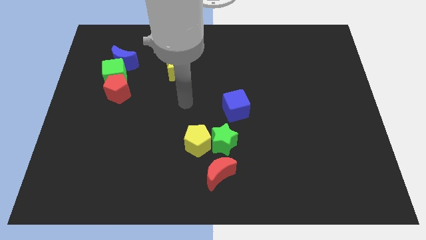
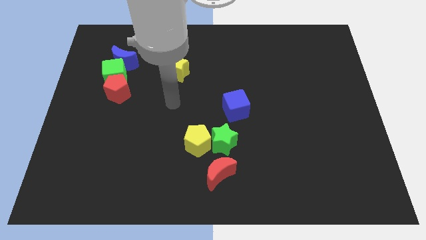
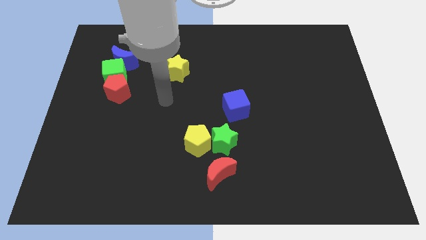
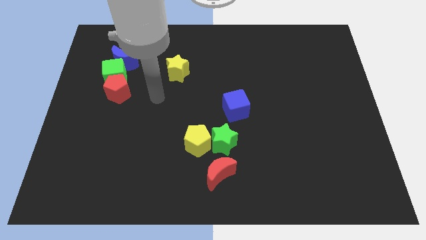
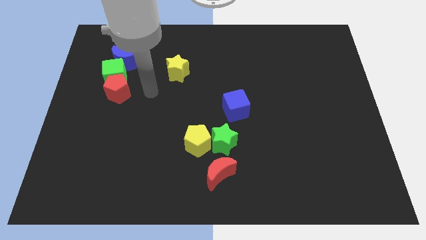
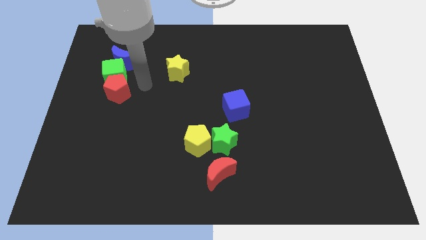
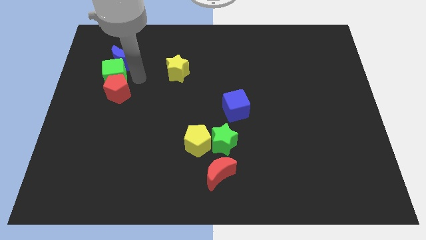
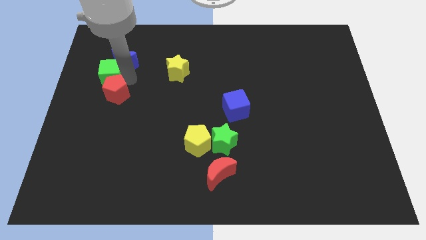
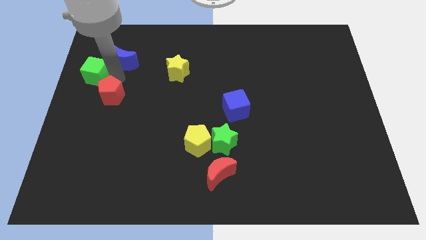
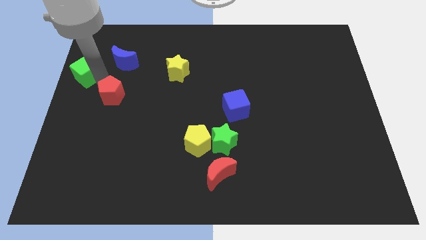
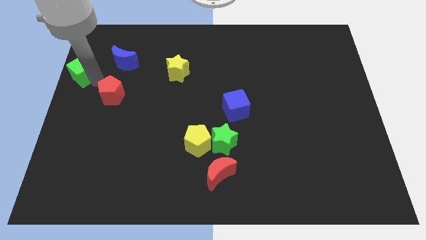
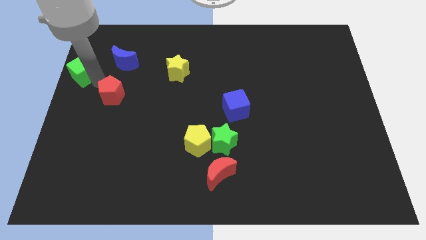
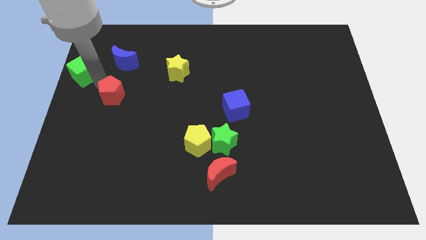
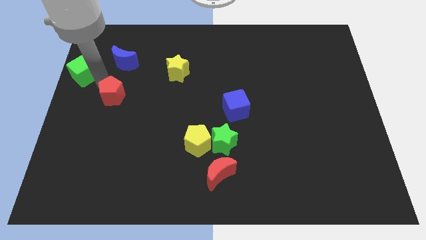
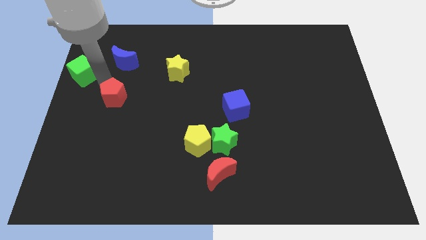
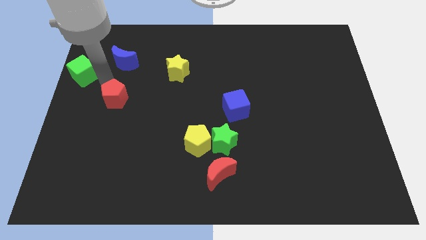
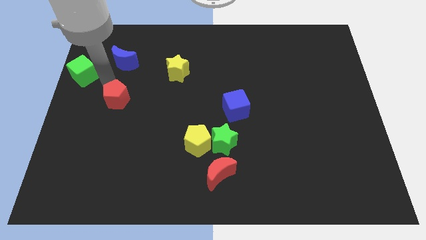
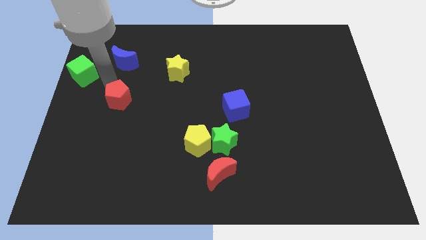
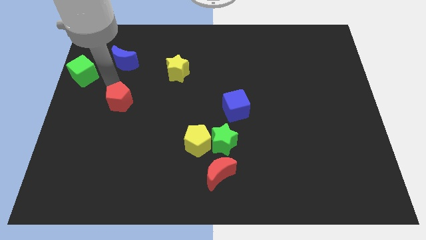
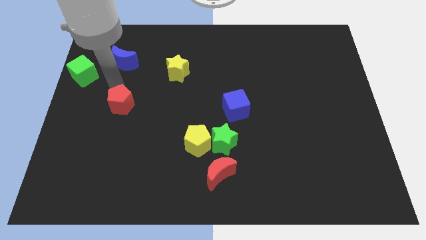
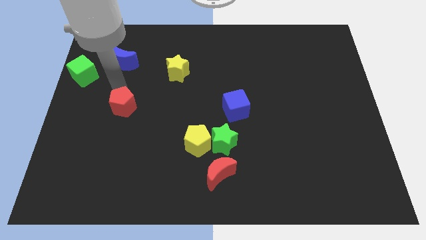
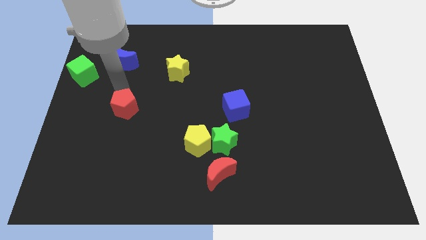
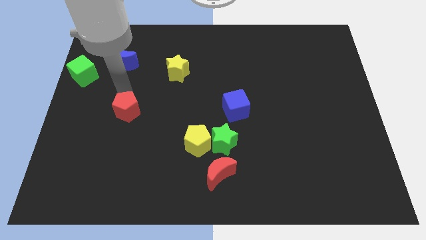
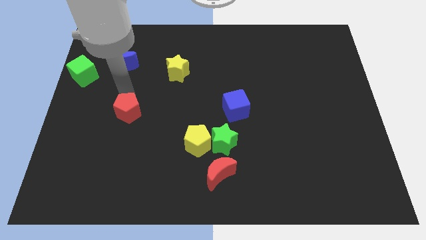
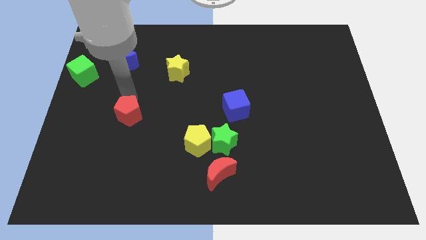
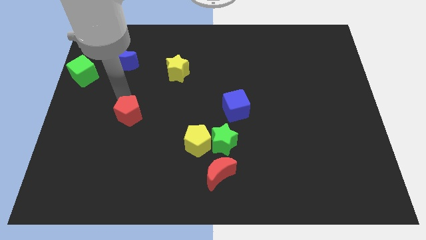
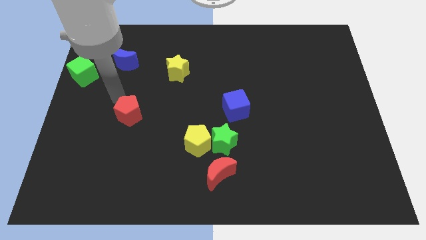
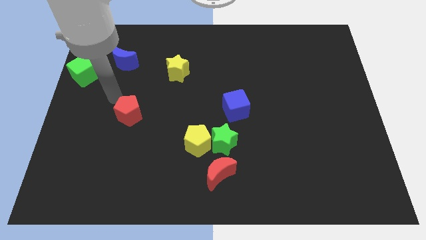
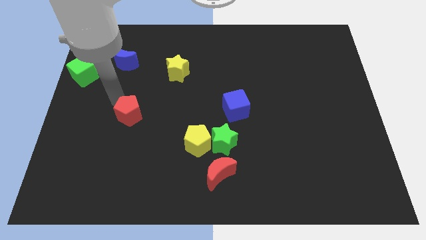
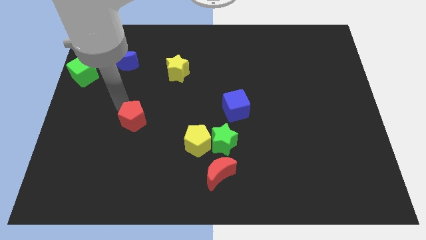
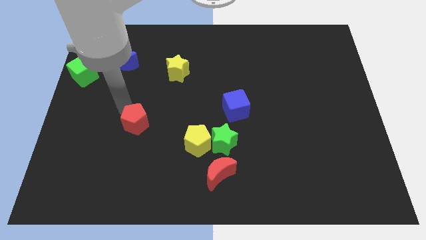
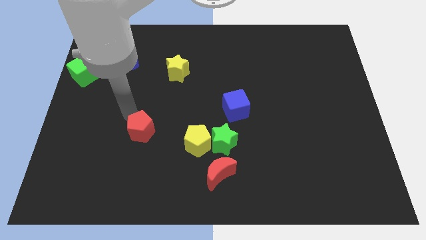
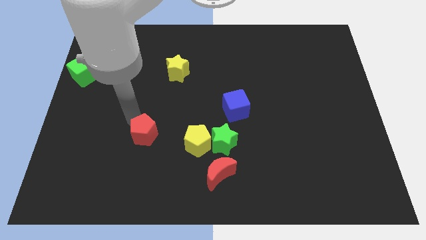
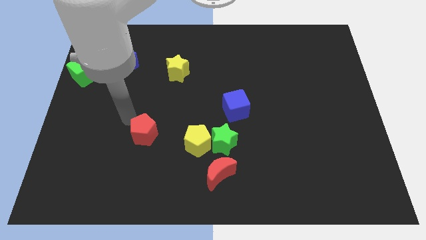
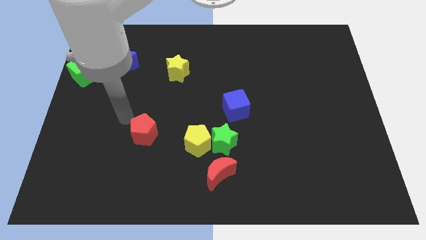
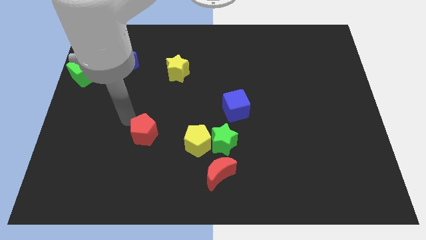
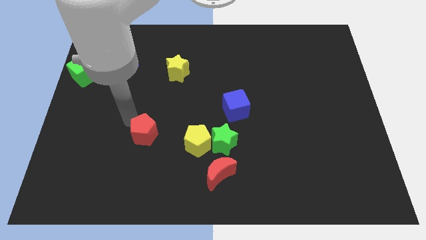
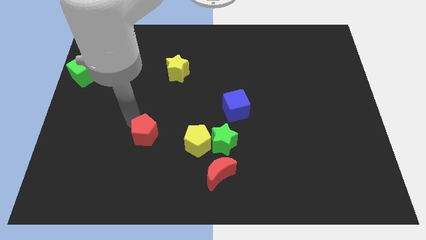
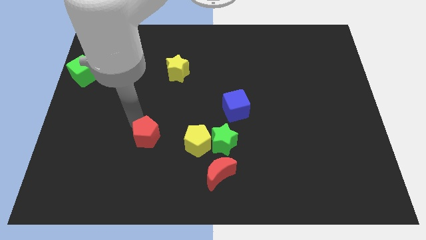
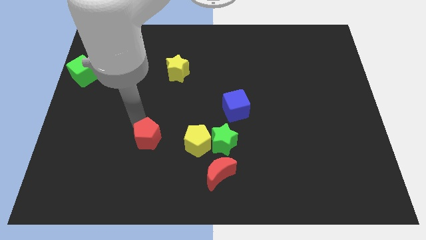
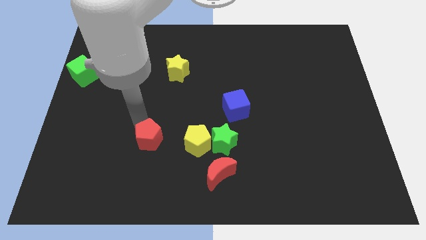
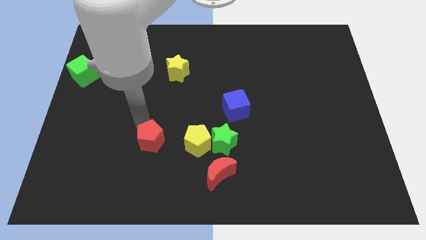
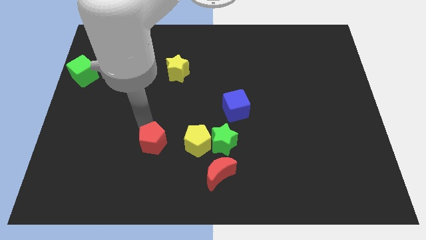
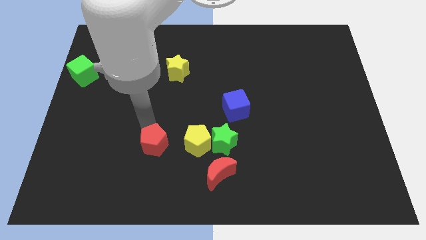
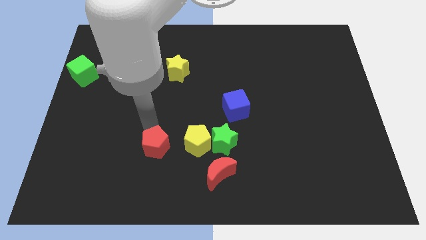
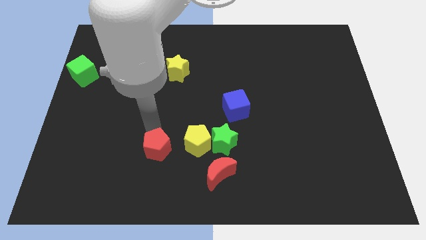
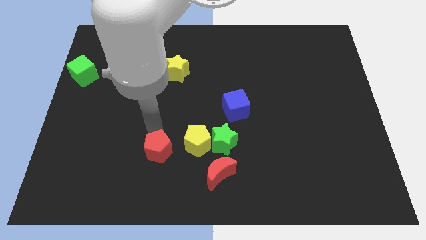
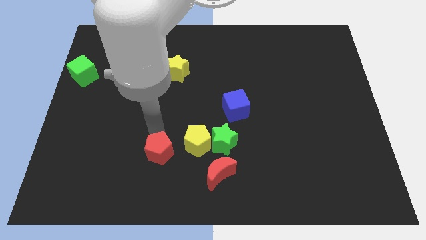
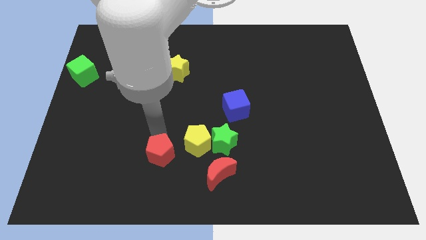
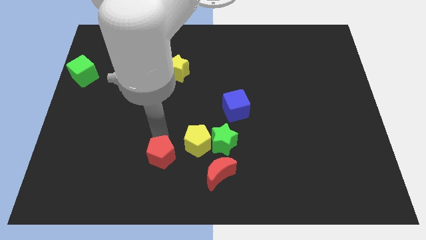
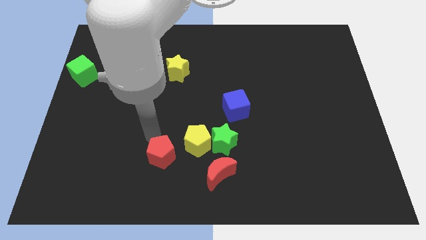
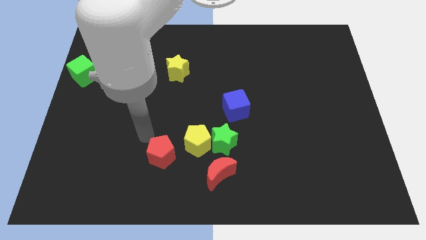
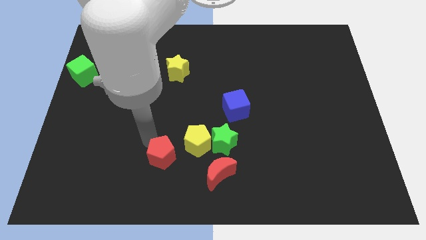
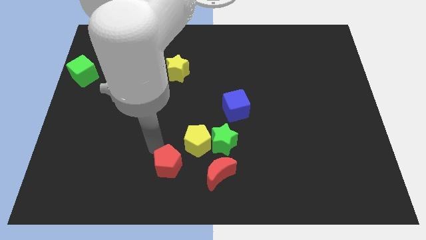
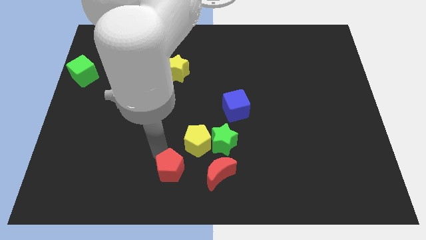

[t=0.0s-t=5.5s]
move the red pentagon to the bottom side

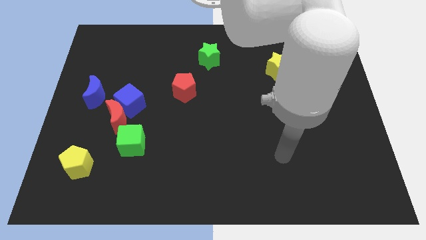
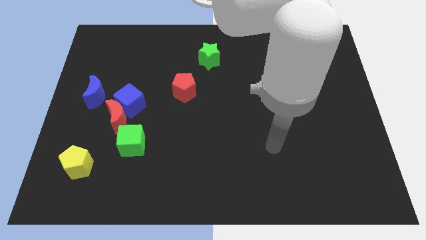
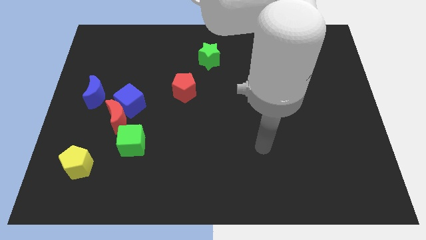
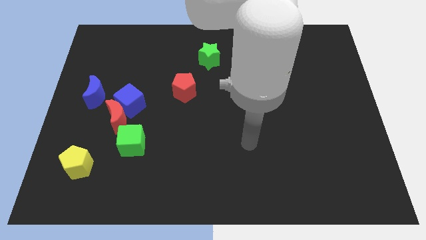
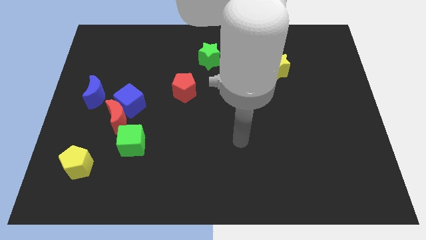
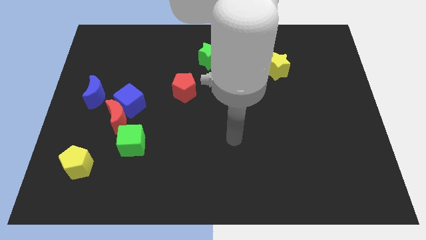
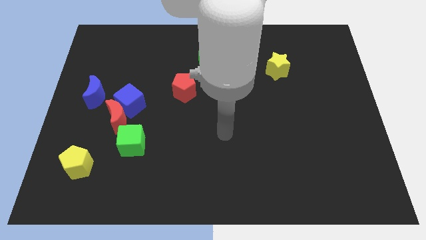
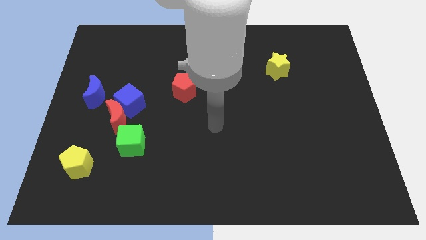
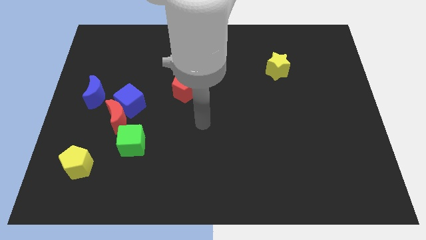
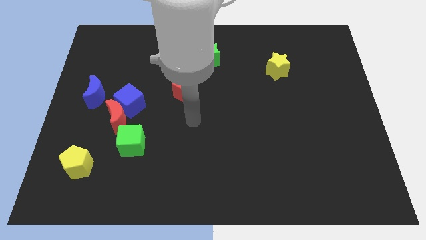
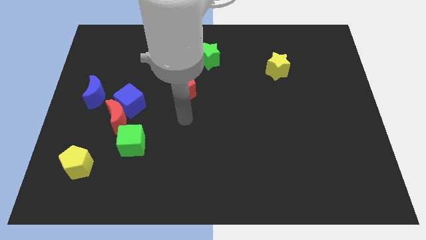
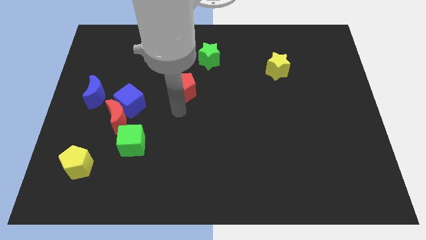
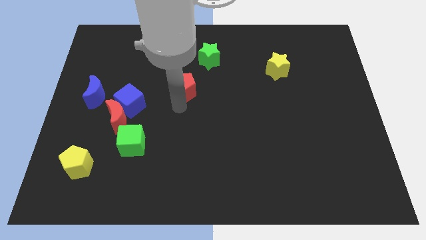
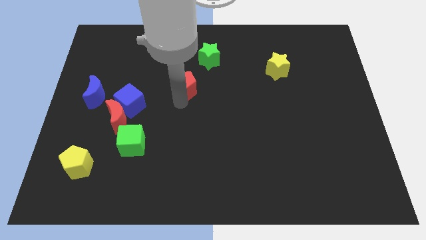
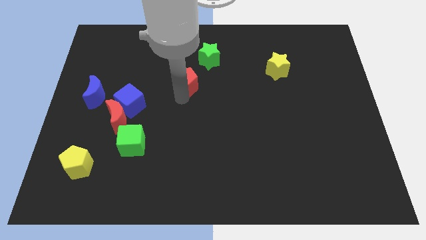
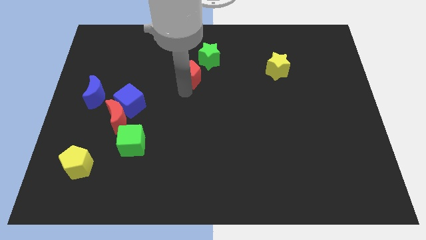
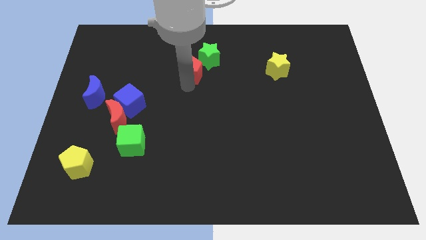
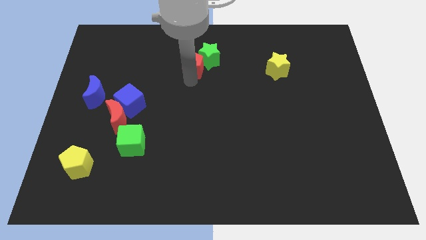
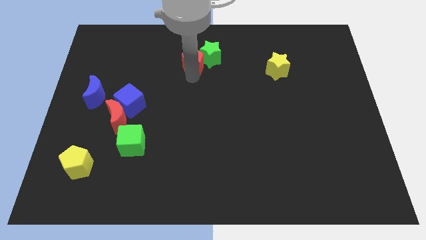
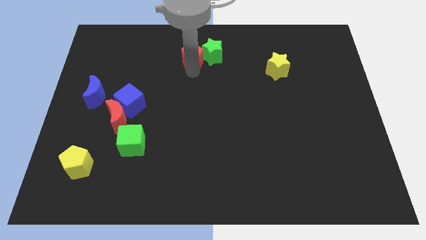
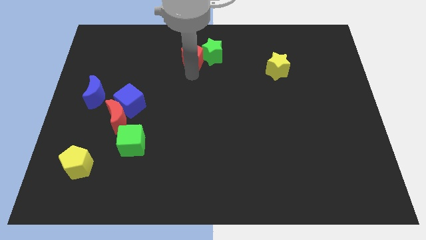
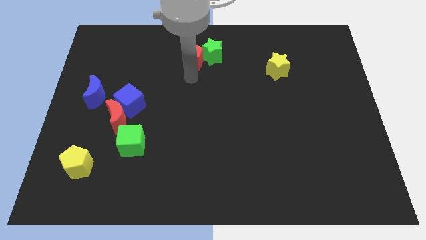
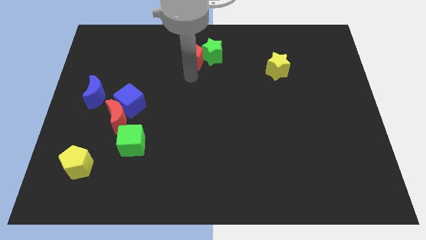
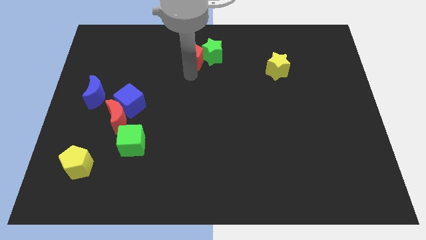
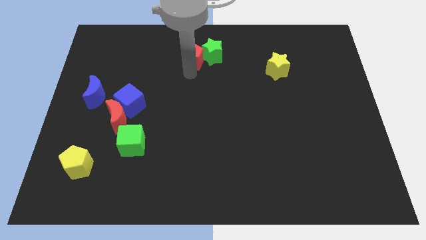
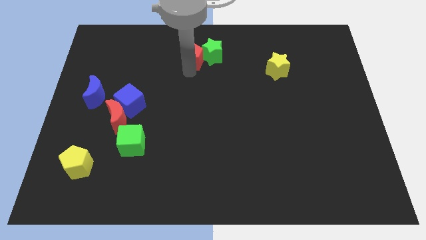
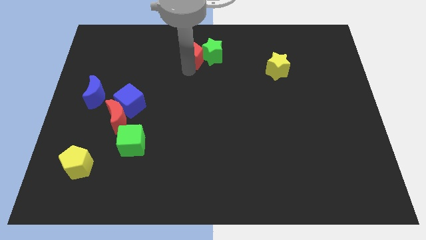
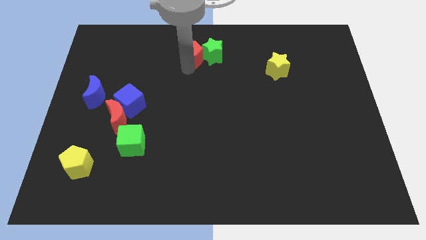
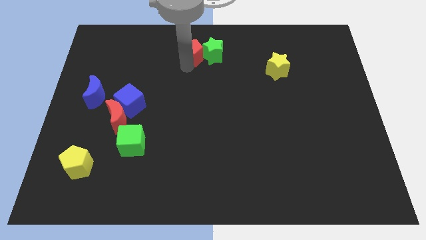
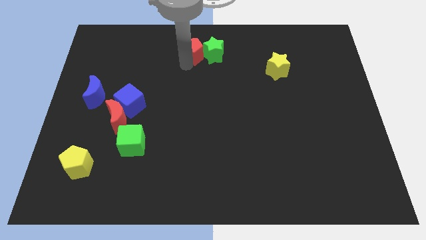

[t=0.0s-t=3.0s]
move the red pentagon to the top side
